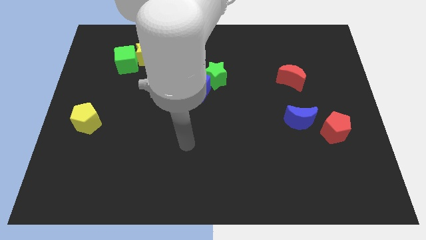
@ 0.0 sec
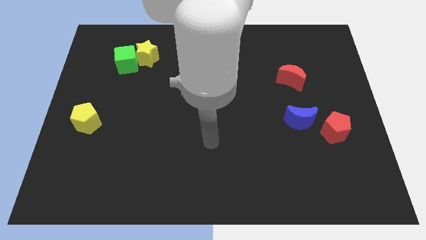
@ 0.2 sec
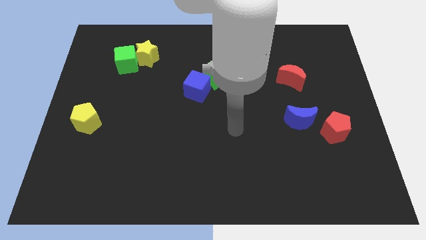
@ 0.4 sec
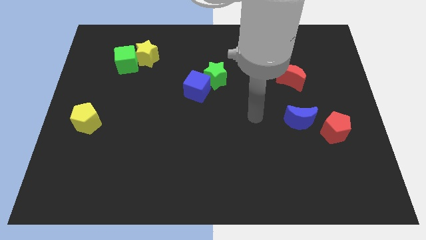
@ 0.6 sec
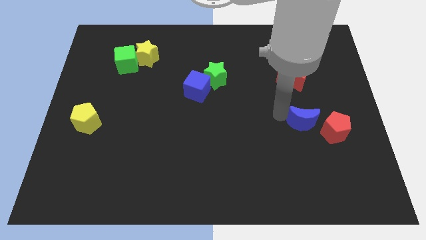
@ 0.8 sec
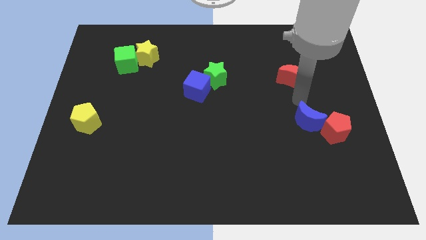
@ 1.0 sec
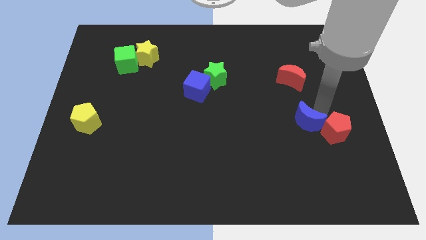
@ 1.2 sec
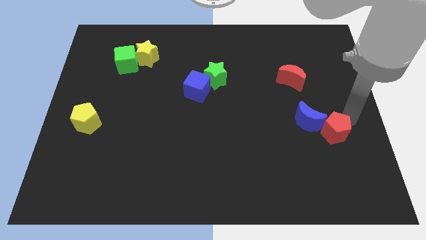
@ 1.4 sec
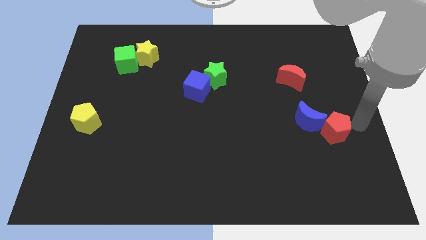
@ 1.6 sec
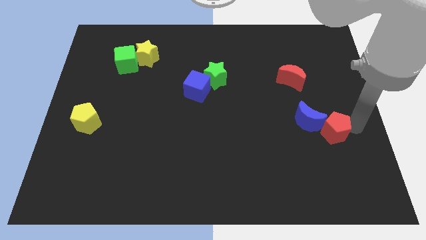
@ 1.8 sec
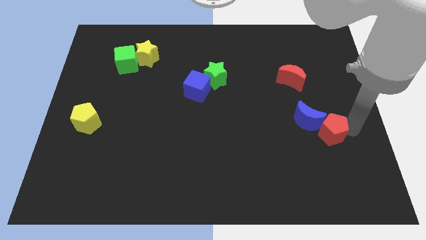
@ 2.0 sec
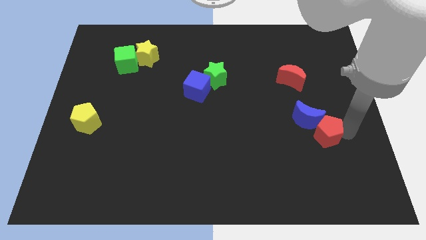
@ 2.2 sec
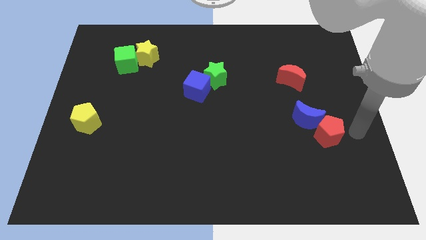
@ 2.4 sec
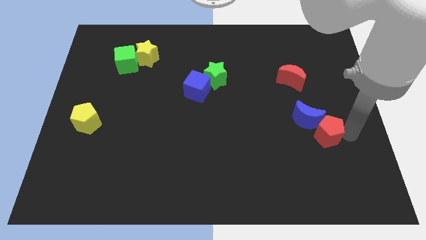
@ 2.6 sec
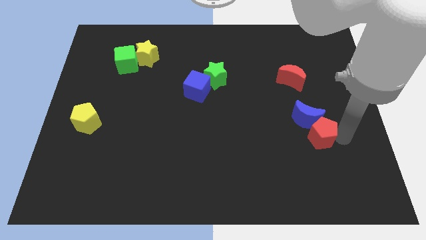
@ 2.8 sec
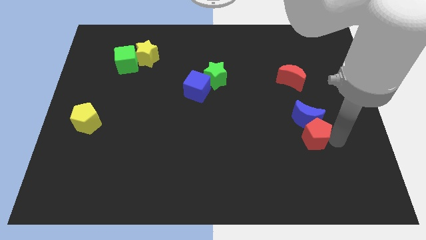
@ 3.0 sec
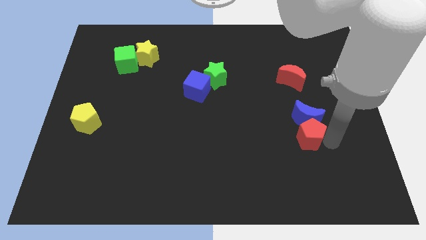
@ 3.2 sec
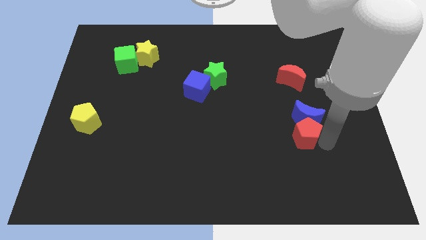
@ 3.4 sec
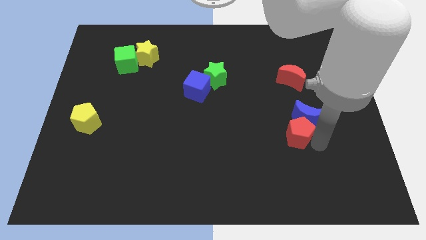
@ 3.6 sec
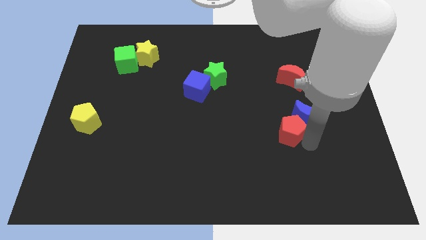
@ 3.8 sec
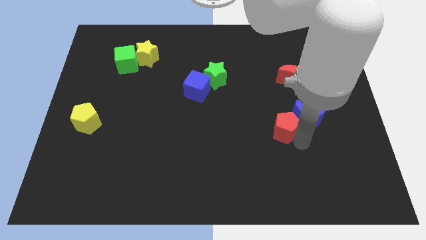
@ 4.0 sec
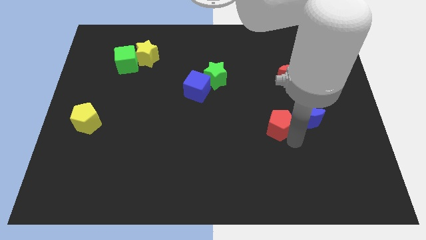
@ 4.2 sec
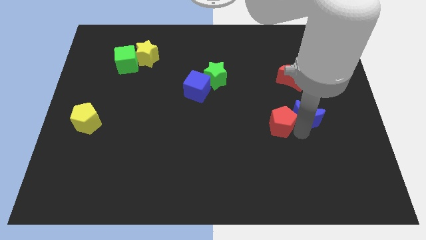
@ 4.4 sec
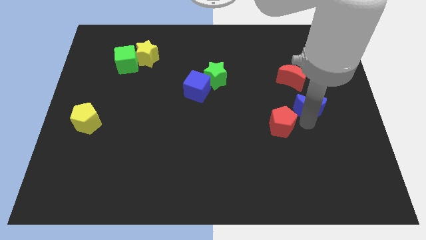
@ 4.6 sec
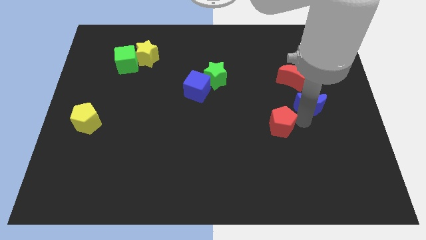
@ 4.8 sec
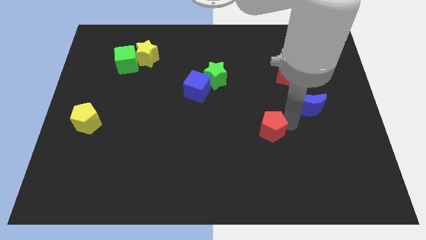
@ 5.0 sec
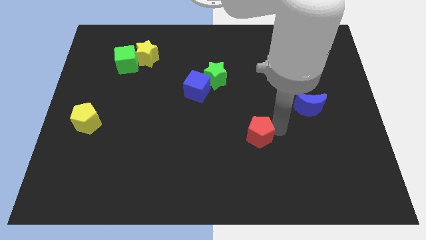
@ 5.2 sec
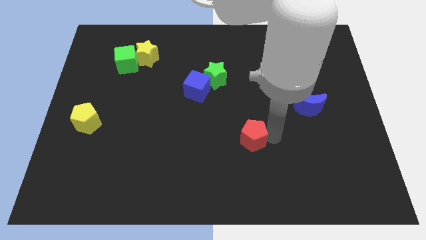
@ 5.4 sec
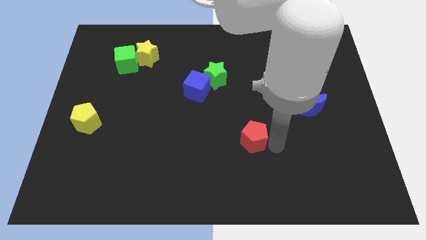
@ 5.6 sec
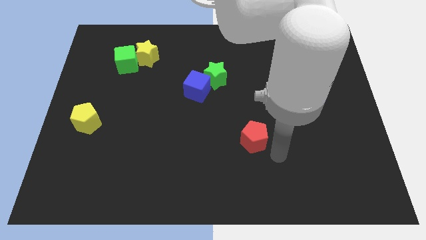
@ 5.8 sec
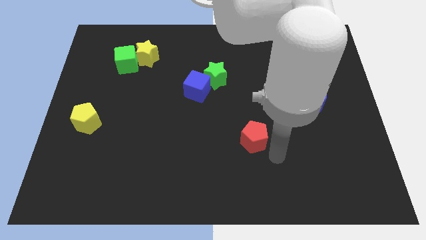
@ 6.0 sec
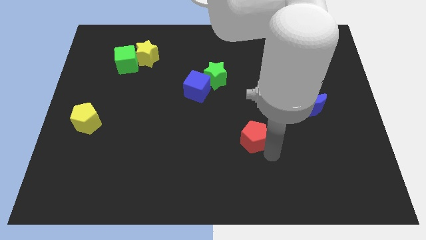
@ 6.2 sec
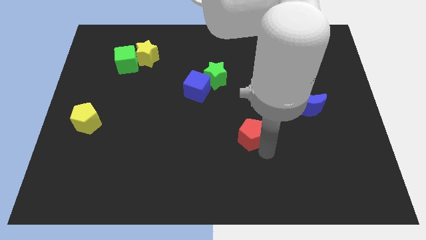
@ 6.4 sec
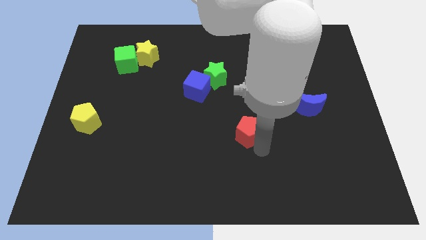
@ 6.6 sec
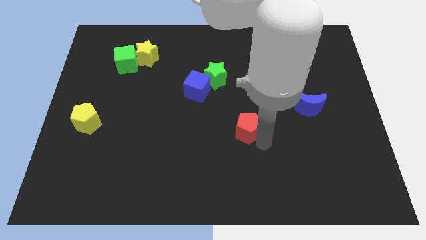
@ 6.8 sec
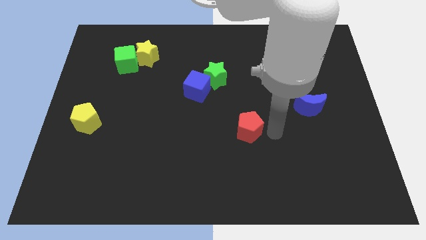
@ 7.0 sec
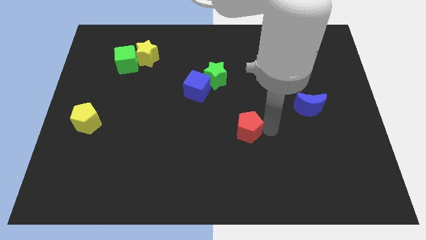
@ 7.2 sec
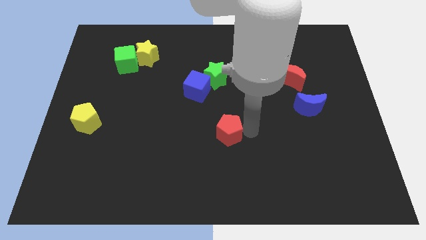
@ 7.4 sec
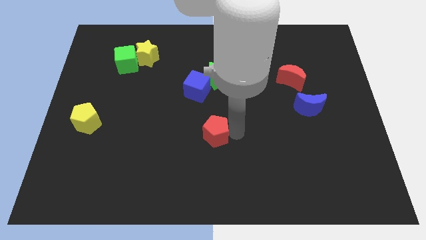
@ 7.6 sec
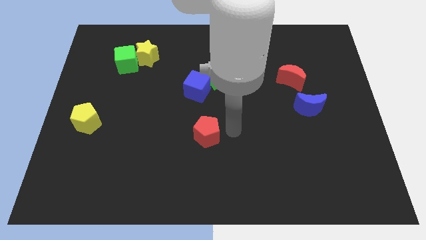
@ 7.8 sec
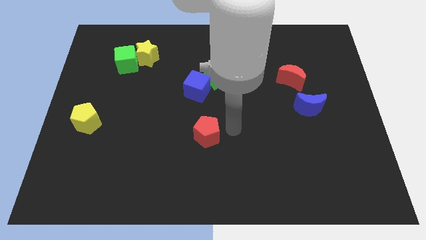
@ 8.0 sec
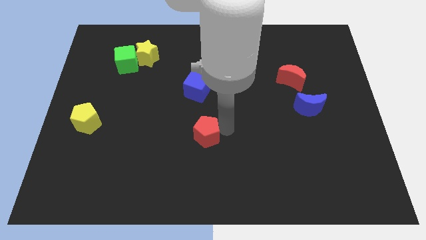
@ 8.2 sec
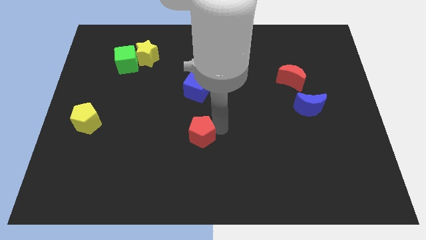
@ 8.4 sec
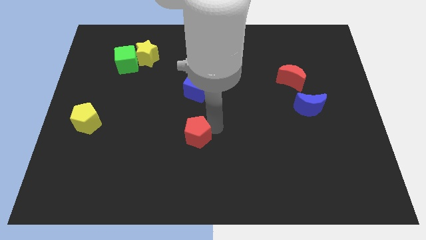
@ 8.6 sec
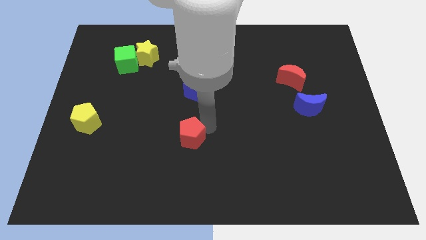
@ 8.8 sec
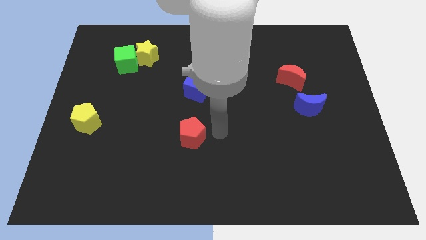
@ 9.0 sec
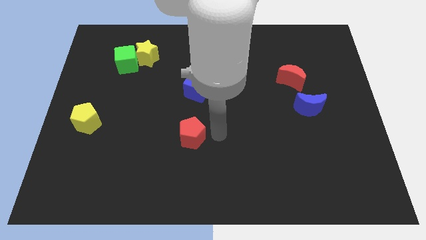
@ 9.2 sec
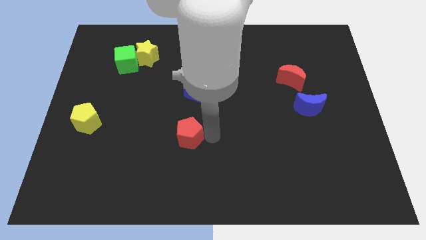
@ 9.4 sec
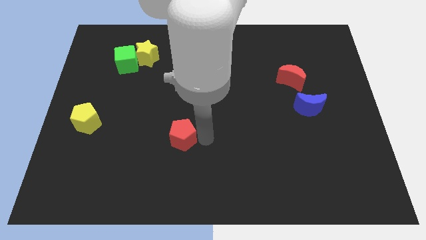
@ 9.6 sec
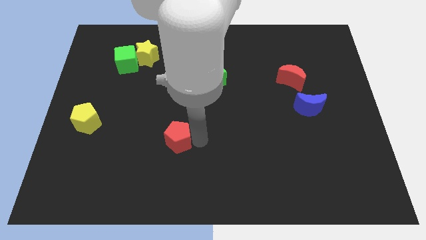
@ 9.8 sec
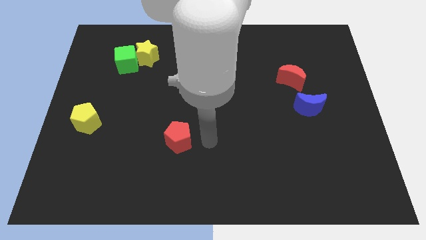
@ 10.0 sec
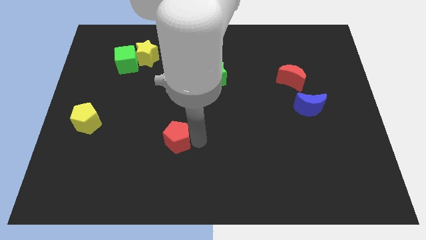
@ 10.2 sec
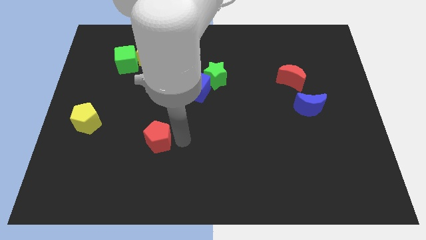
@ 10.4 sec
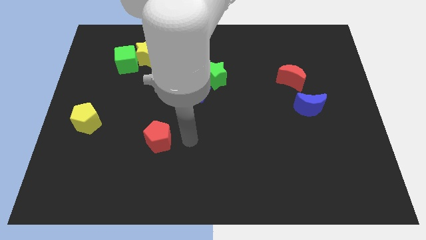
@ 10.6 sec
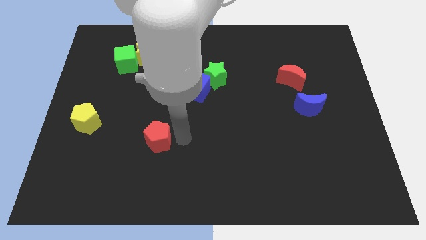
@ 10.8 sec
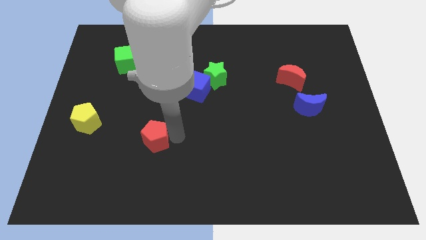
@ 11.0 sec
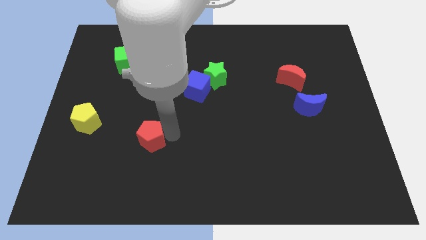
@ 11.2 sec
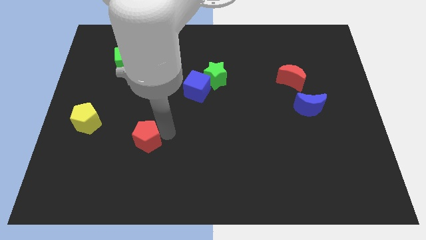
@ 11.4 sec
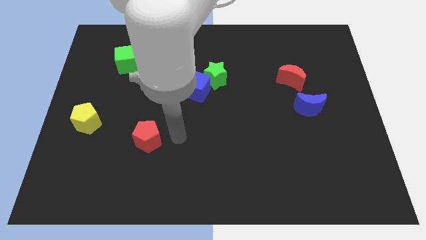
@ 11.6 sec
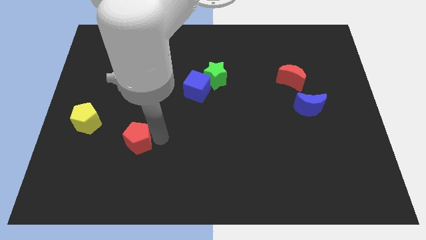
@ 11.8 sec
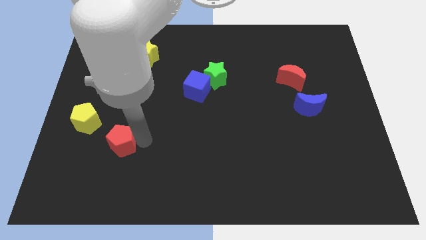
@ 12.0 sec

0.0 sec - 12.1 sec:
move the red pentagon diagonally down and to the right of the yellow pentagon

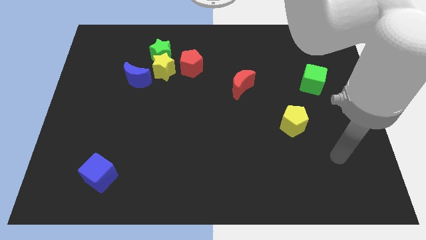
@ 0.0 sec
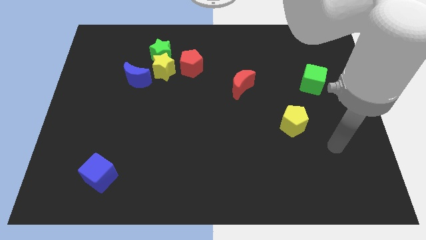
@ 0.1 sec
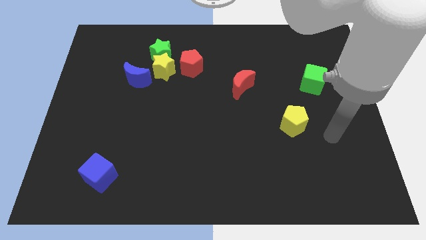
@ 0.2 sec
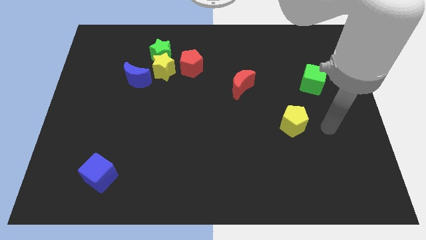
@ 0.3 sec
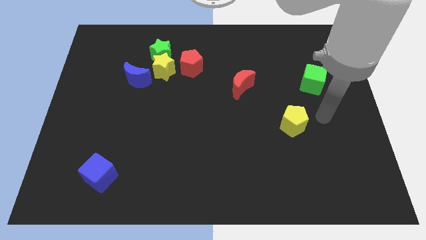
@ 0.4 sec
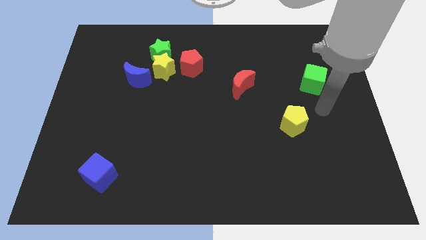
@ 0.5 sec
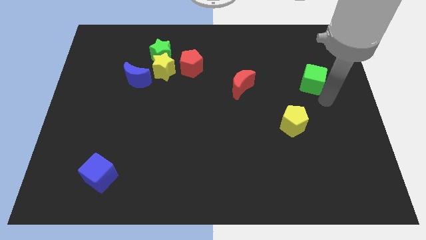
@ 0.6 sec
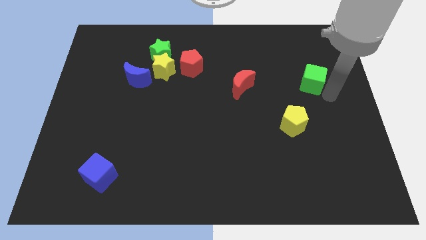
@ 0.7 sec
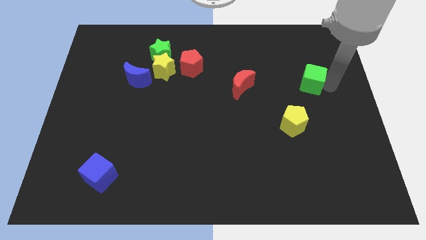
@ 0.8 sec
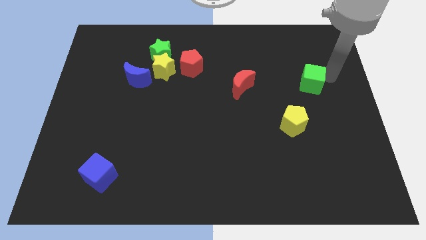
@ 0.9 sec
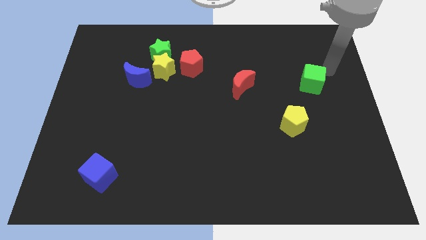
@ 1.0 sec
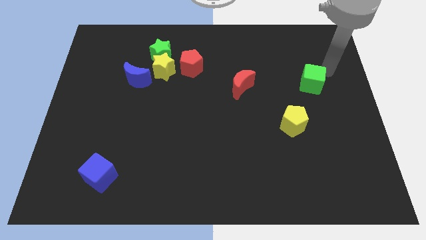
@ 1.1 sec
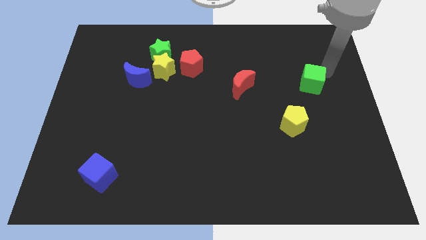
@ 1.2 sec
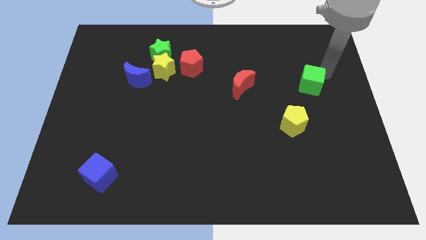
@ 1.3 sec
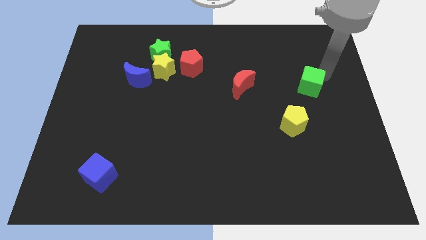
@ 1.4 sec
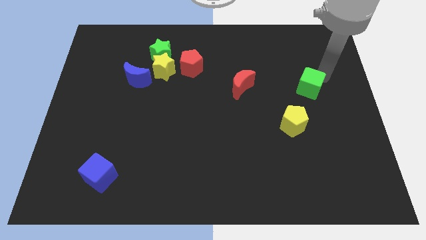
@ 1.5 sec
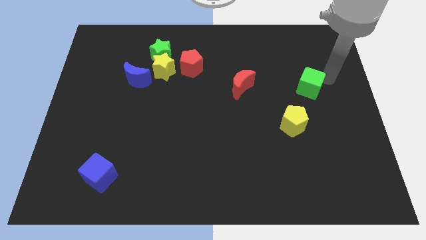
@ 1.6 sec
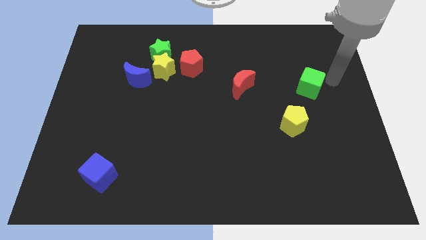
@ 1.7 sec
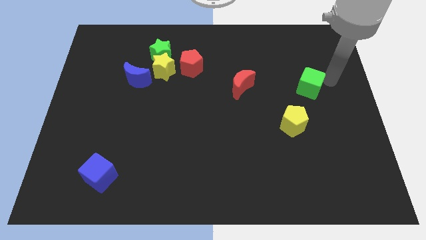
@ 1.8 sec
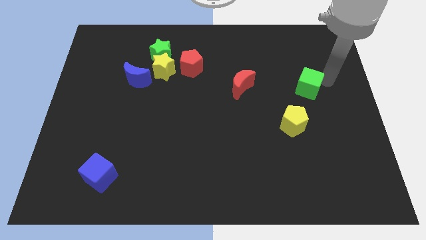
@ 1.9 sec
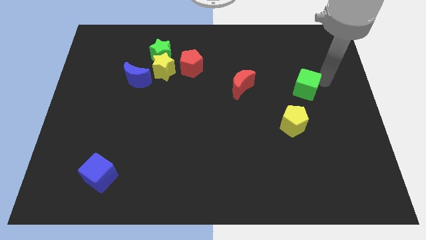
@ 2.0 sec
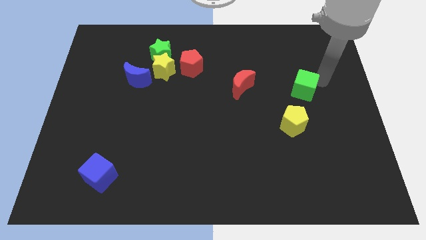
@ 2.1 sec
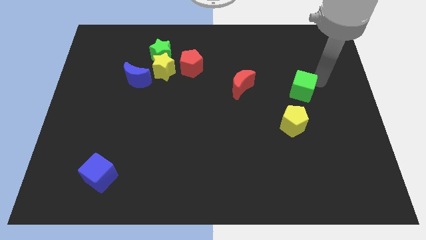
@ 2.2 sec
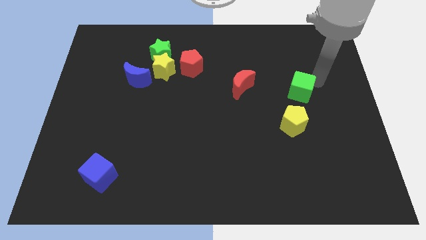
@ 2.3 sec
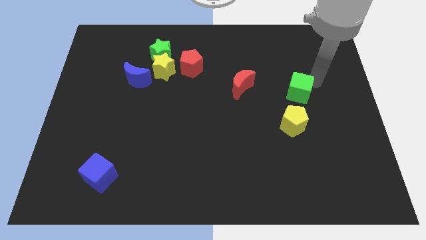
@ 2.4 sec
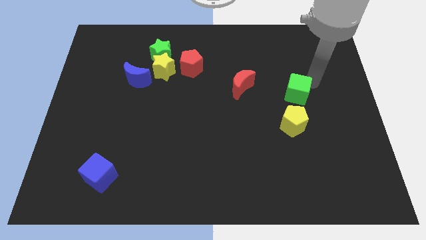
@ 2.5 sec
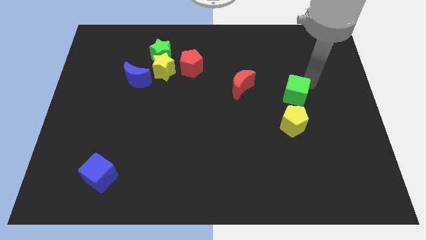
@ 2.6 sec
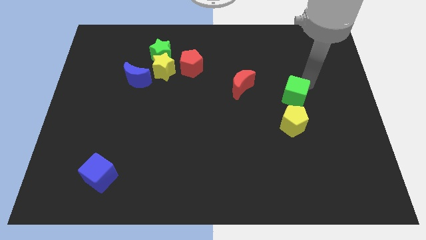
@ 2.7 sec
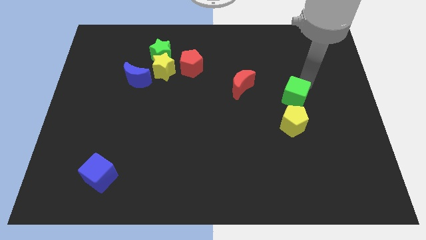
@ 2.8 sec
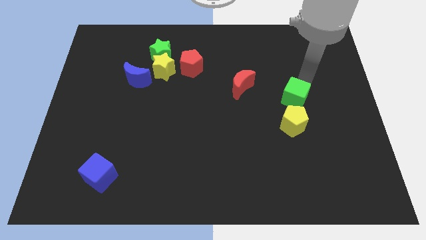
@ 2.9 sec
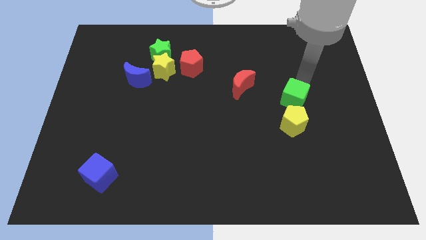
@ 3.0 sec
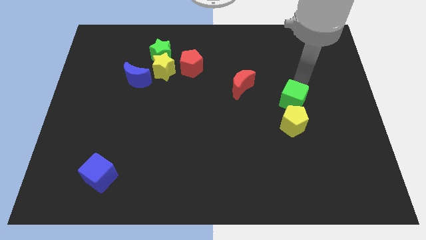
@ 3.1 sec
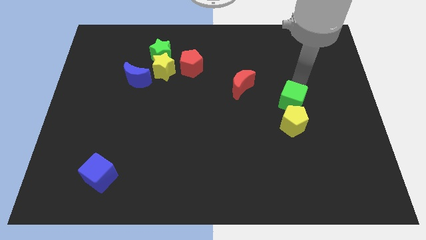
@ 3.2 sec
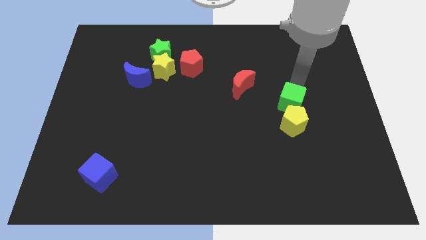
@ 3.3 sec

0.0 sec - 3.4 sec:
put the green cube to the top left side of the yellow pentagon
